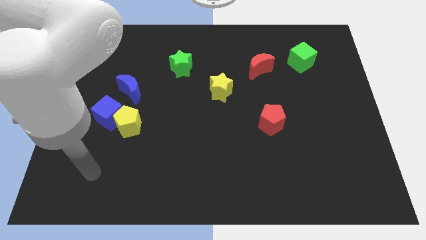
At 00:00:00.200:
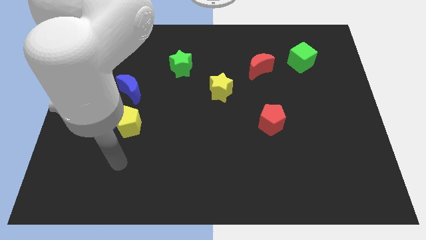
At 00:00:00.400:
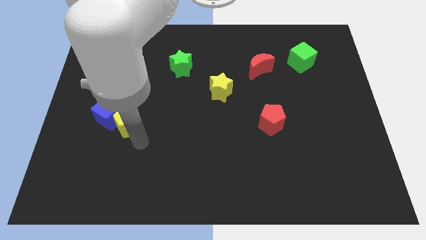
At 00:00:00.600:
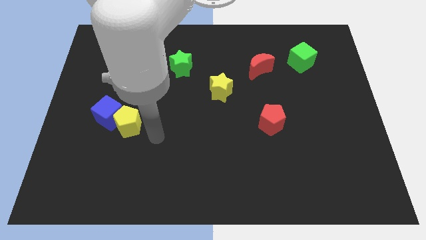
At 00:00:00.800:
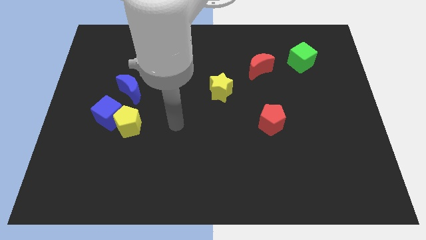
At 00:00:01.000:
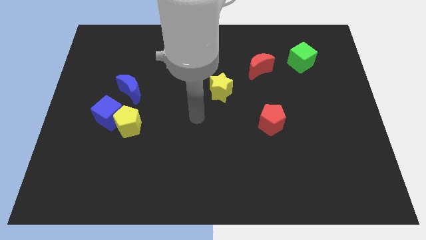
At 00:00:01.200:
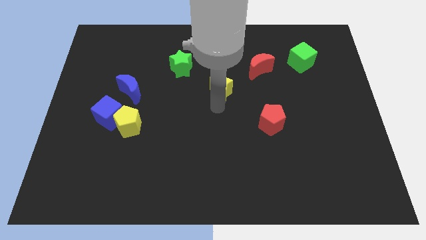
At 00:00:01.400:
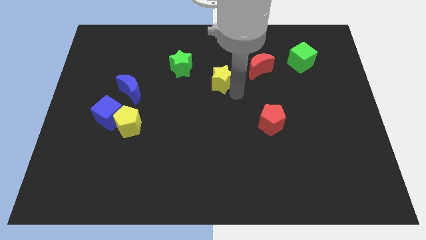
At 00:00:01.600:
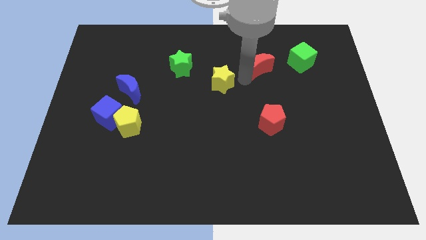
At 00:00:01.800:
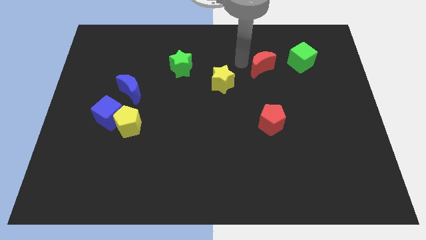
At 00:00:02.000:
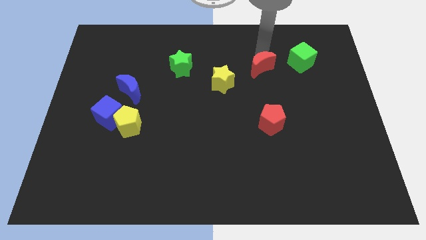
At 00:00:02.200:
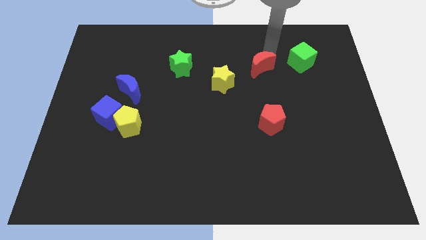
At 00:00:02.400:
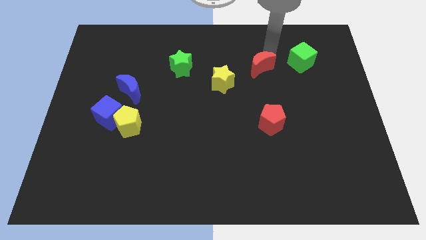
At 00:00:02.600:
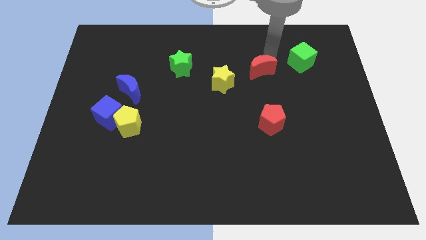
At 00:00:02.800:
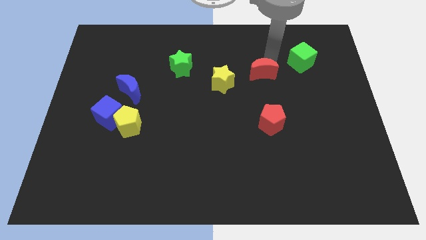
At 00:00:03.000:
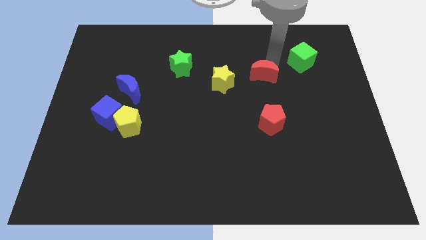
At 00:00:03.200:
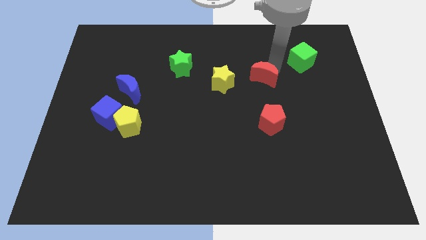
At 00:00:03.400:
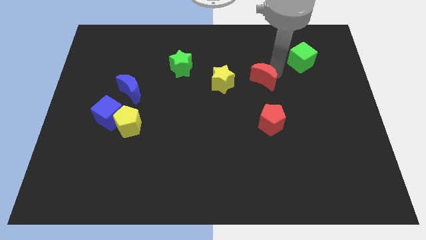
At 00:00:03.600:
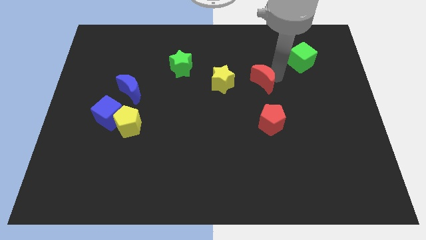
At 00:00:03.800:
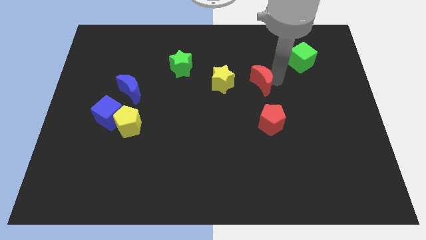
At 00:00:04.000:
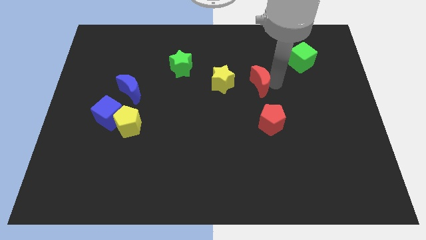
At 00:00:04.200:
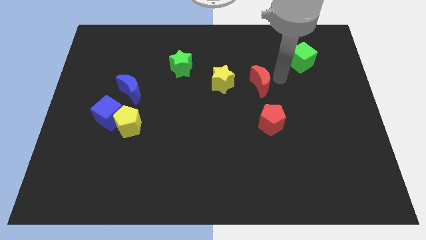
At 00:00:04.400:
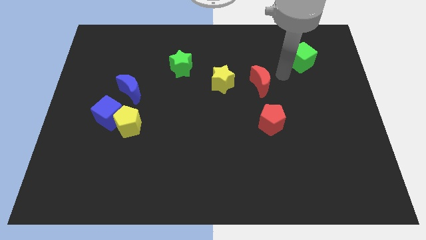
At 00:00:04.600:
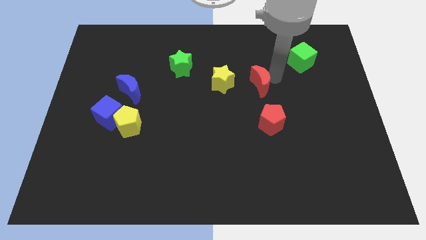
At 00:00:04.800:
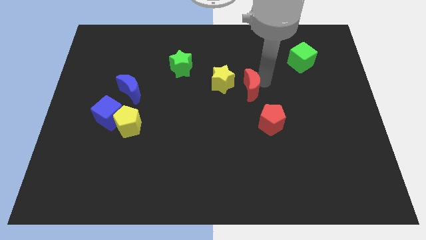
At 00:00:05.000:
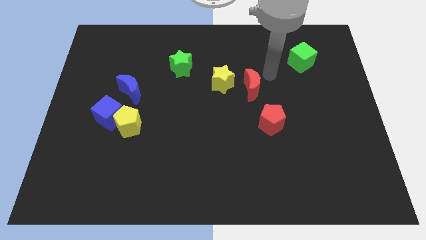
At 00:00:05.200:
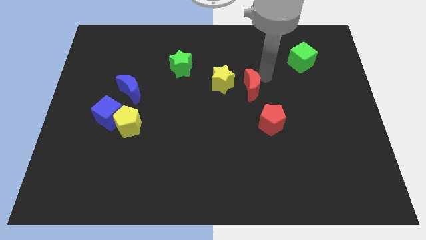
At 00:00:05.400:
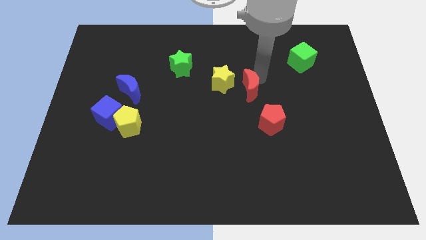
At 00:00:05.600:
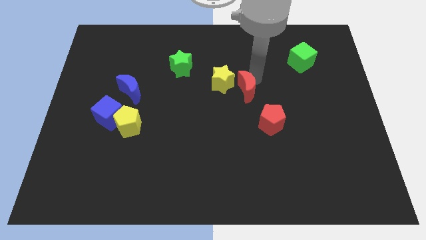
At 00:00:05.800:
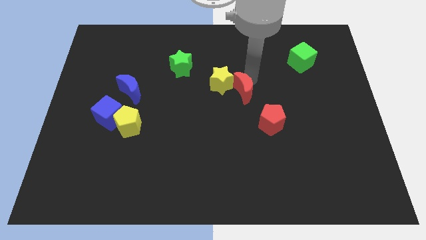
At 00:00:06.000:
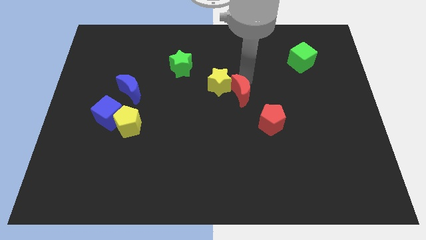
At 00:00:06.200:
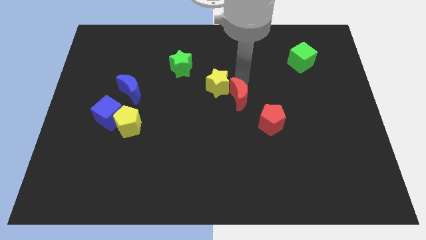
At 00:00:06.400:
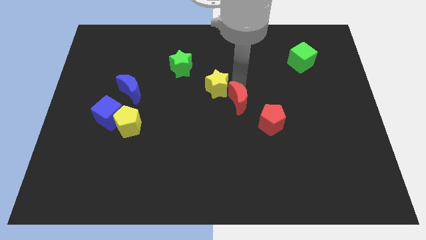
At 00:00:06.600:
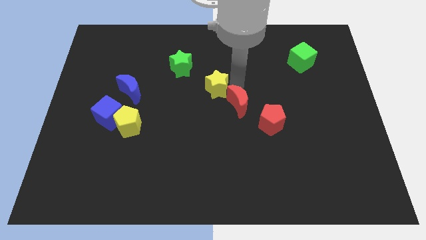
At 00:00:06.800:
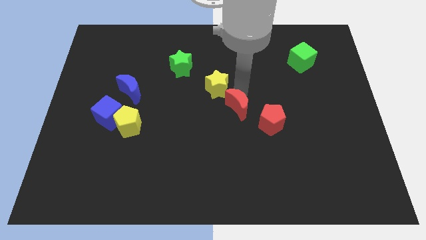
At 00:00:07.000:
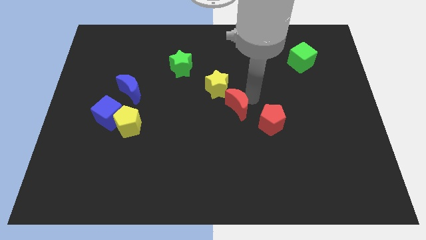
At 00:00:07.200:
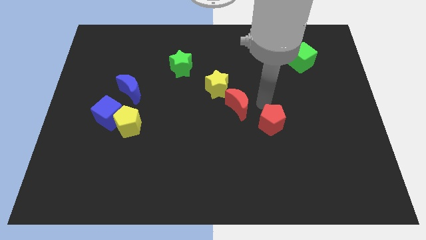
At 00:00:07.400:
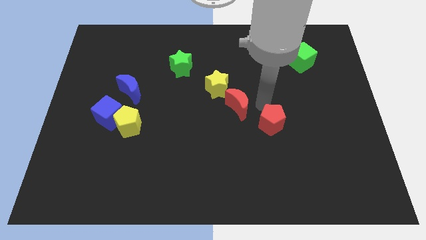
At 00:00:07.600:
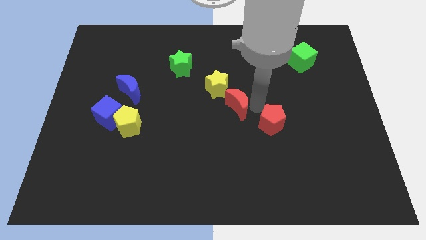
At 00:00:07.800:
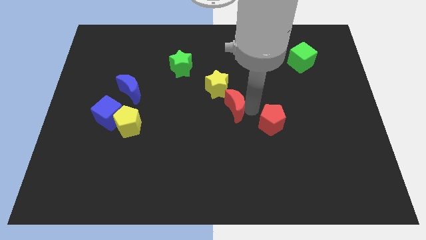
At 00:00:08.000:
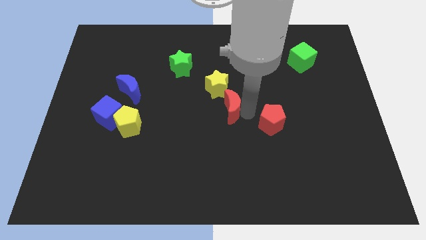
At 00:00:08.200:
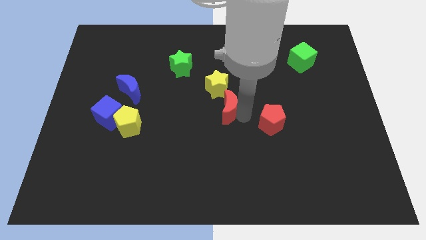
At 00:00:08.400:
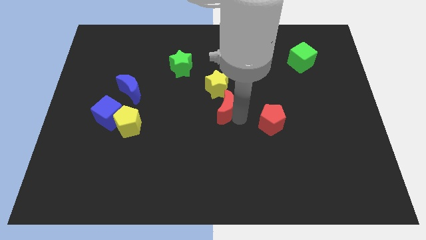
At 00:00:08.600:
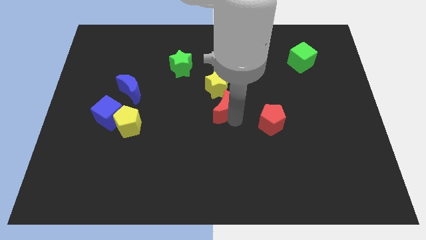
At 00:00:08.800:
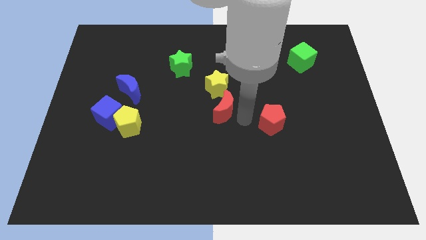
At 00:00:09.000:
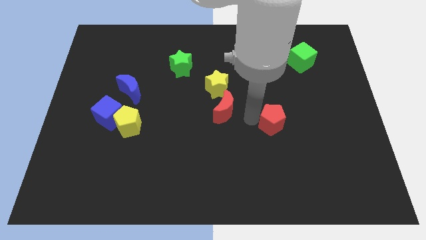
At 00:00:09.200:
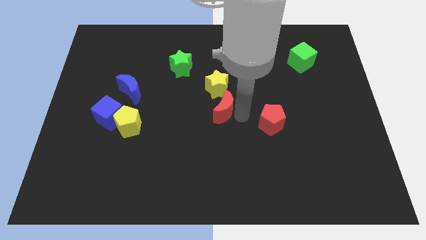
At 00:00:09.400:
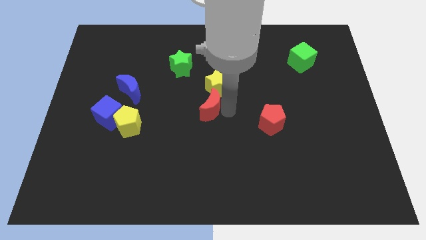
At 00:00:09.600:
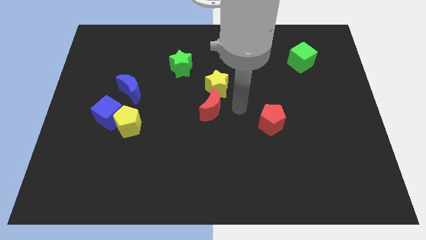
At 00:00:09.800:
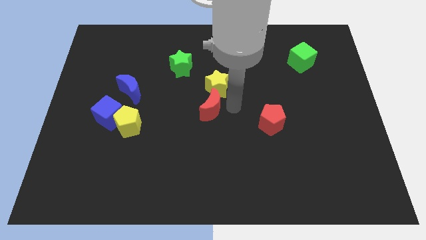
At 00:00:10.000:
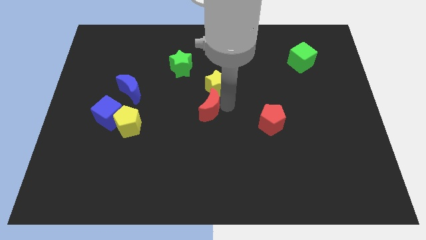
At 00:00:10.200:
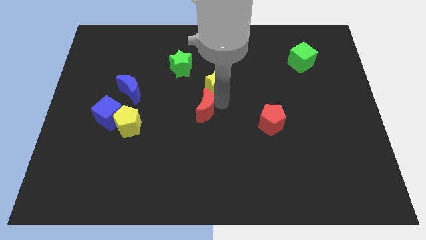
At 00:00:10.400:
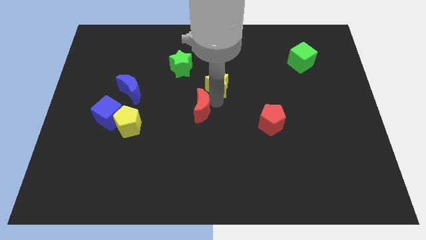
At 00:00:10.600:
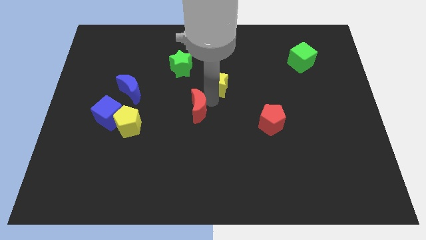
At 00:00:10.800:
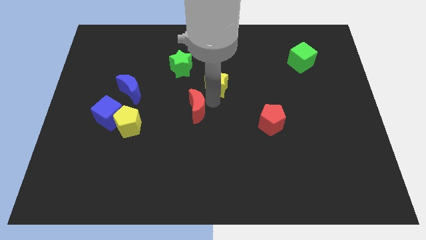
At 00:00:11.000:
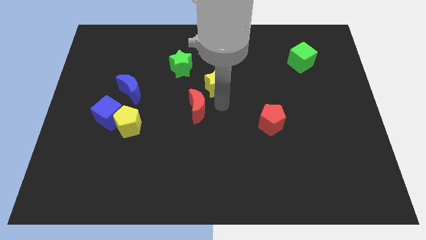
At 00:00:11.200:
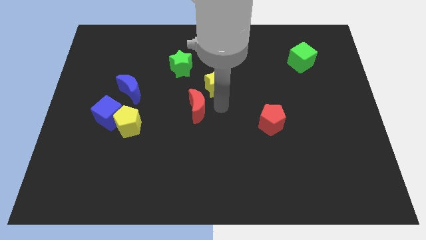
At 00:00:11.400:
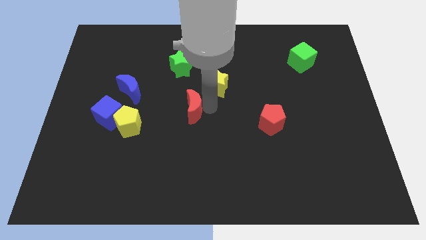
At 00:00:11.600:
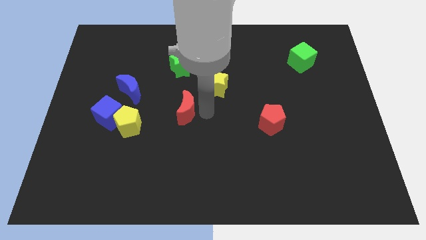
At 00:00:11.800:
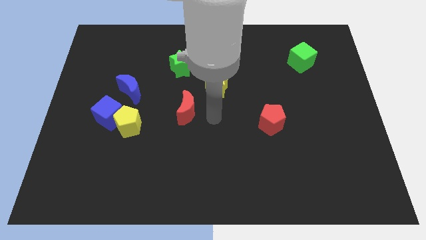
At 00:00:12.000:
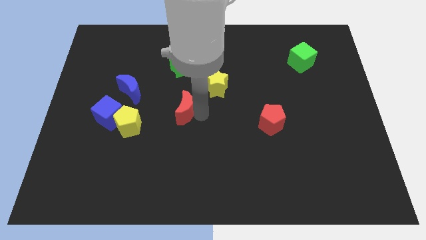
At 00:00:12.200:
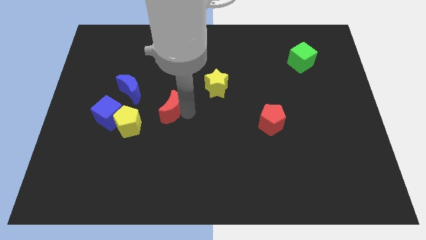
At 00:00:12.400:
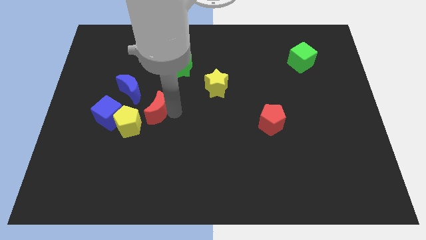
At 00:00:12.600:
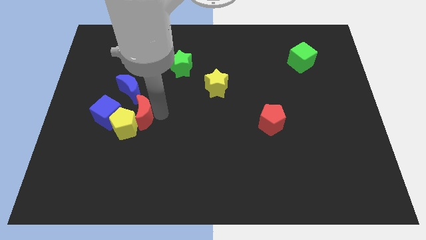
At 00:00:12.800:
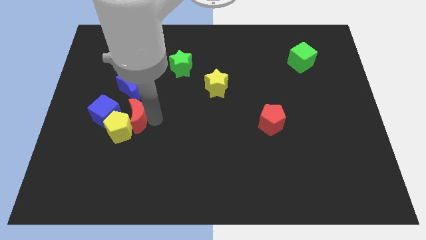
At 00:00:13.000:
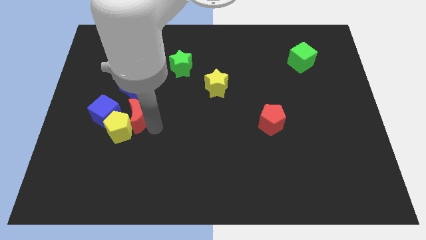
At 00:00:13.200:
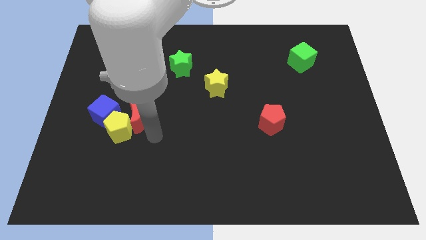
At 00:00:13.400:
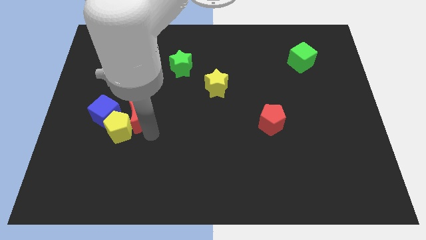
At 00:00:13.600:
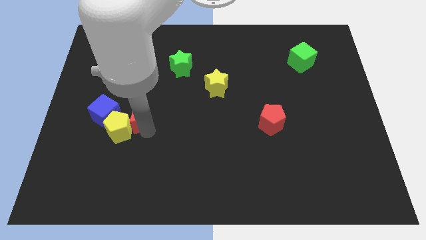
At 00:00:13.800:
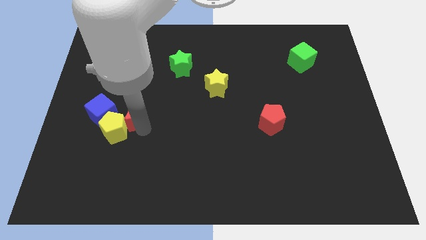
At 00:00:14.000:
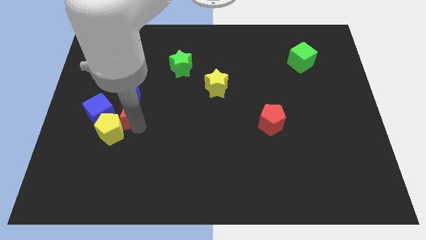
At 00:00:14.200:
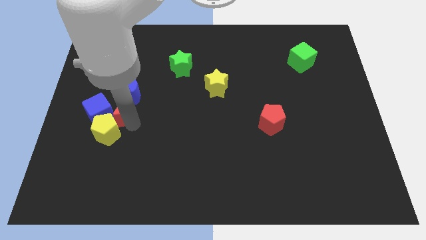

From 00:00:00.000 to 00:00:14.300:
slide the red moon close to the blue cube

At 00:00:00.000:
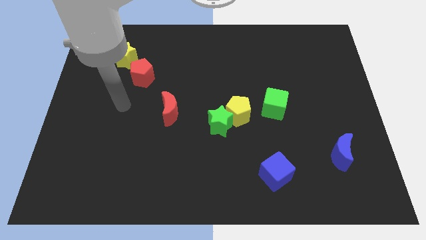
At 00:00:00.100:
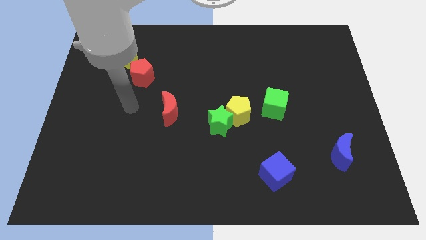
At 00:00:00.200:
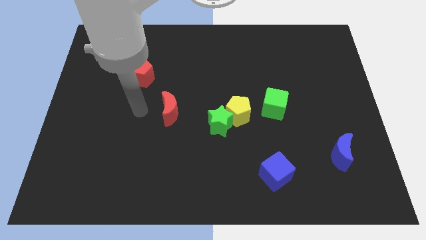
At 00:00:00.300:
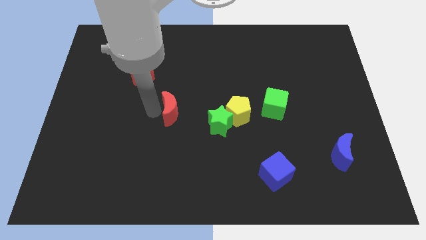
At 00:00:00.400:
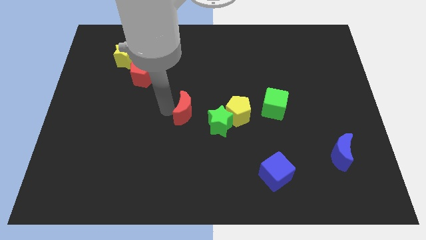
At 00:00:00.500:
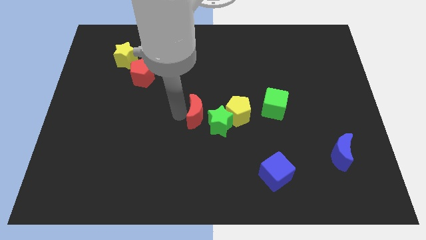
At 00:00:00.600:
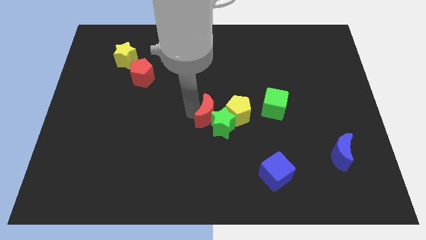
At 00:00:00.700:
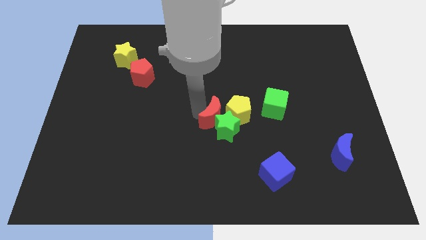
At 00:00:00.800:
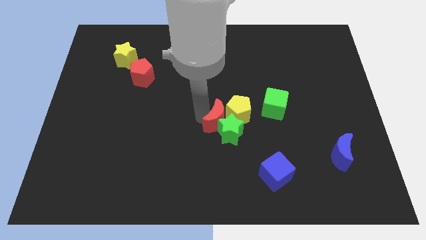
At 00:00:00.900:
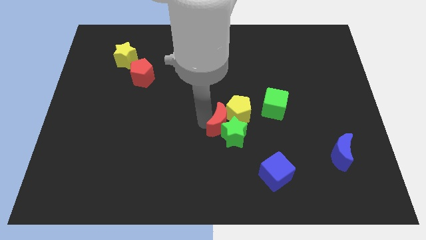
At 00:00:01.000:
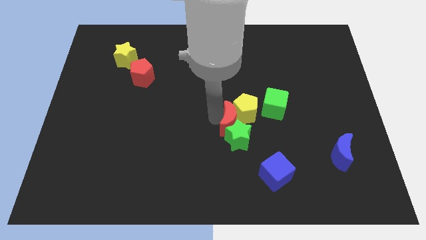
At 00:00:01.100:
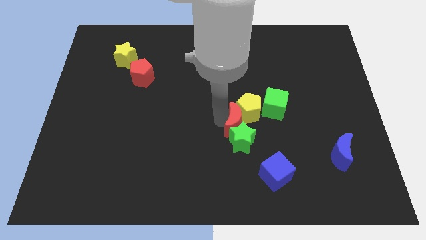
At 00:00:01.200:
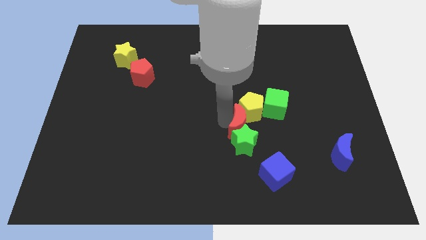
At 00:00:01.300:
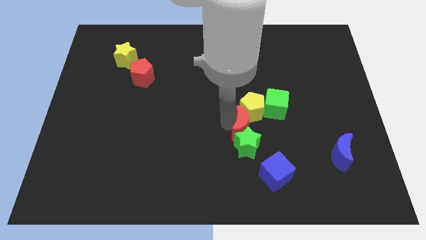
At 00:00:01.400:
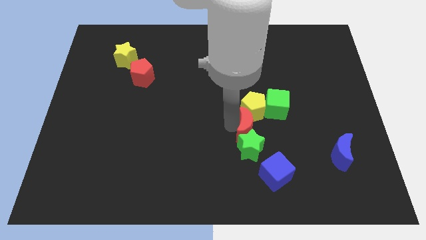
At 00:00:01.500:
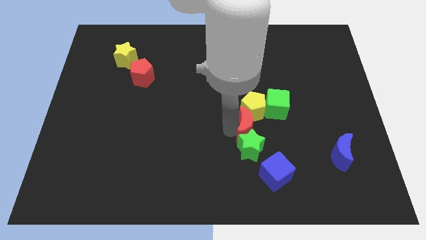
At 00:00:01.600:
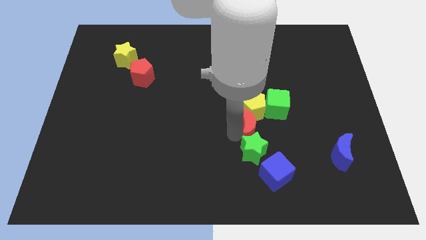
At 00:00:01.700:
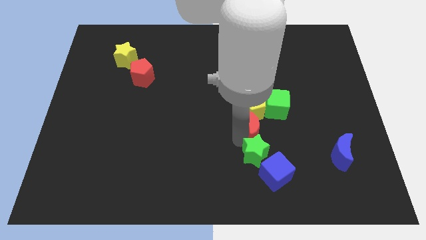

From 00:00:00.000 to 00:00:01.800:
push the green star to the blue cube
